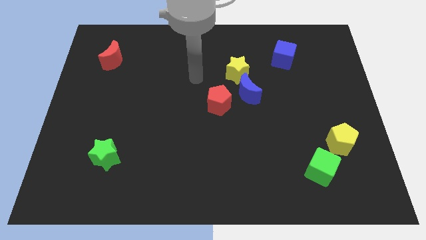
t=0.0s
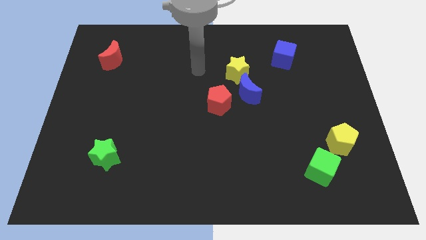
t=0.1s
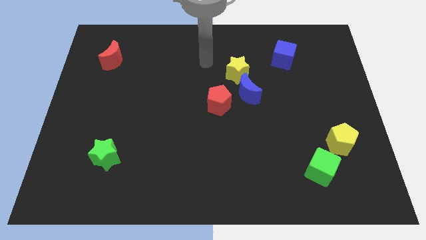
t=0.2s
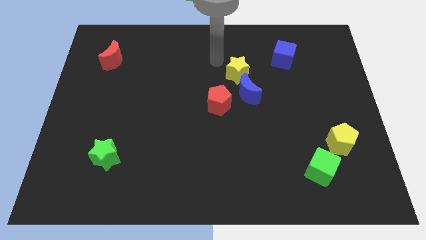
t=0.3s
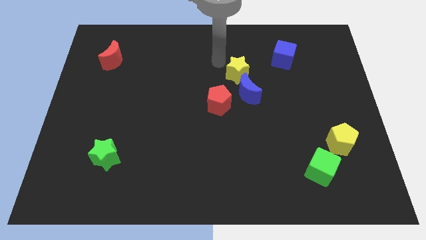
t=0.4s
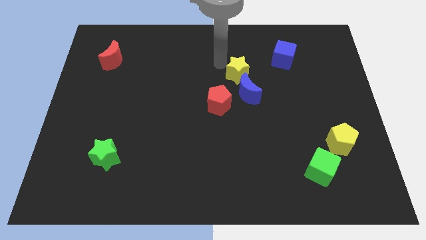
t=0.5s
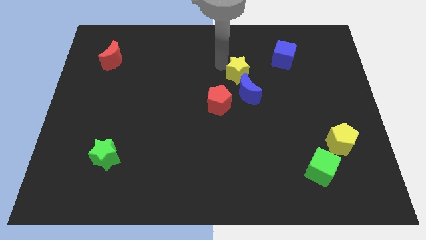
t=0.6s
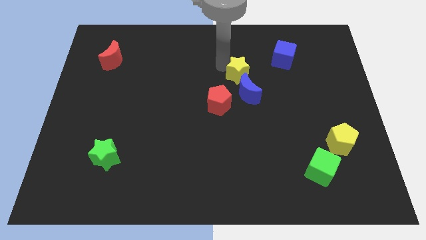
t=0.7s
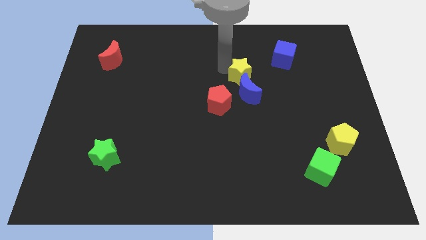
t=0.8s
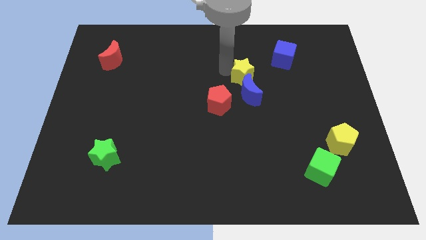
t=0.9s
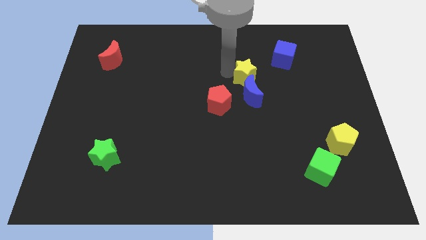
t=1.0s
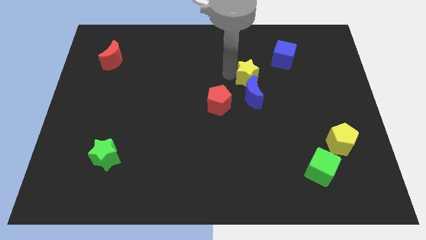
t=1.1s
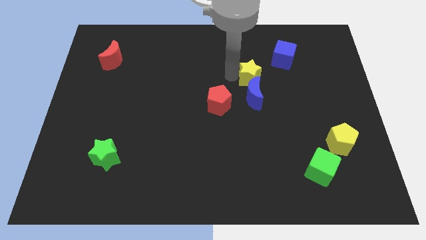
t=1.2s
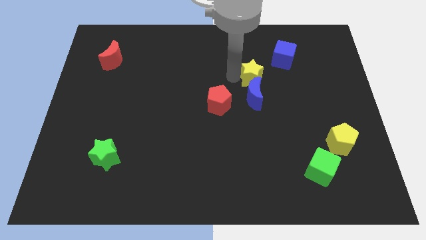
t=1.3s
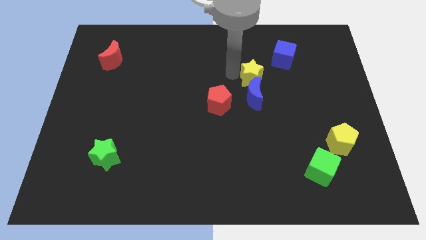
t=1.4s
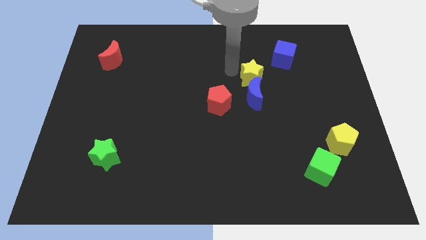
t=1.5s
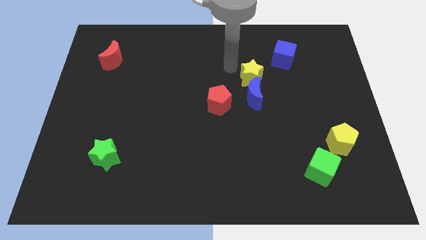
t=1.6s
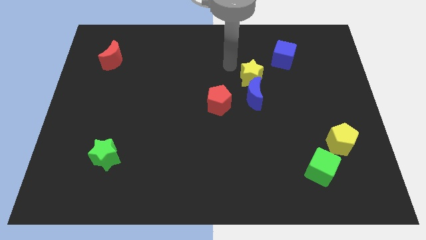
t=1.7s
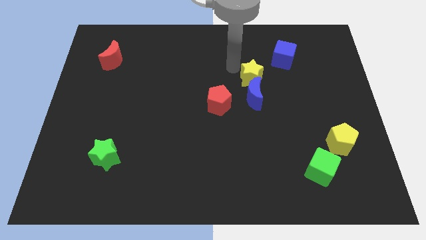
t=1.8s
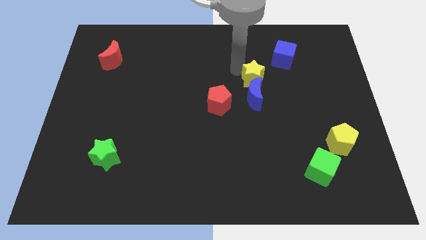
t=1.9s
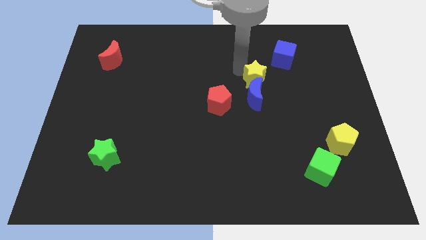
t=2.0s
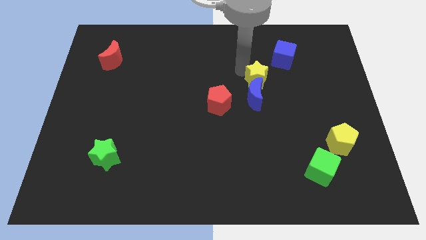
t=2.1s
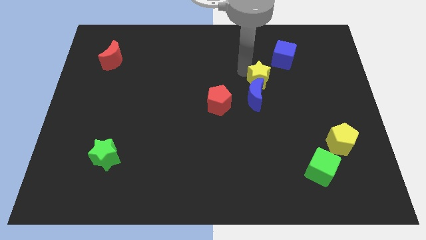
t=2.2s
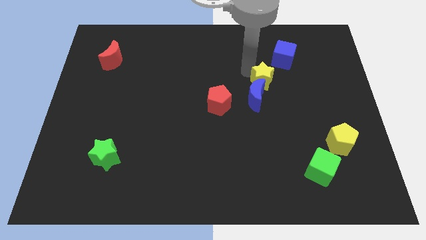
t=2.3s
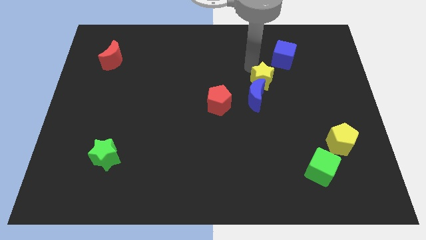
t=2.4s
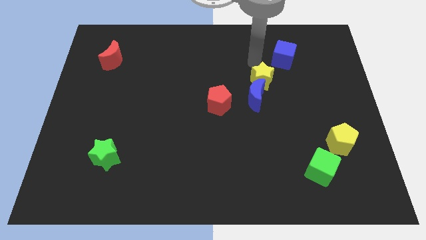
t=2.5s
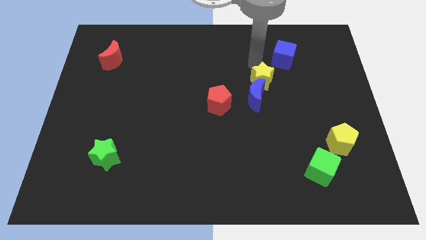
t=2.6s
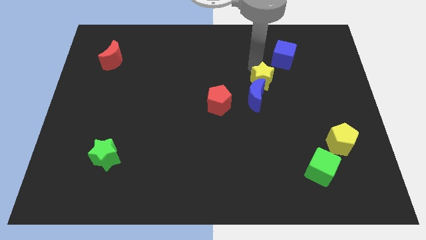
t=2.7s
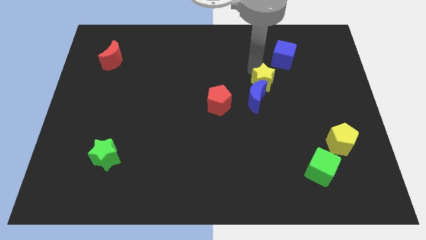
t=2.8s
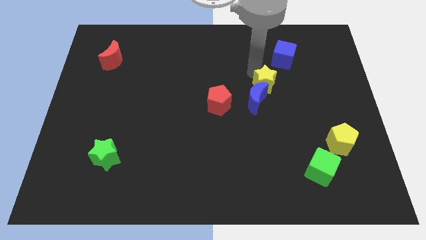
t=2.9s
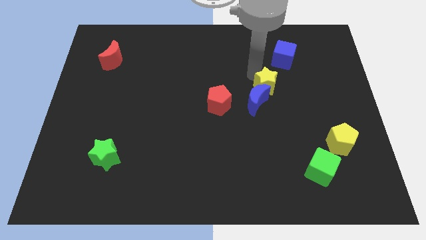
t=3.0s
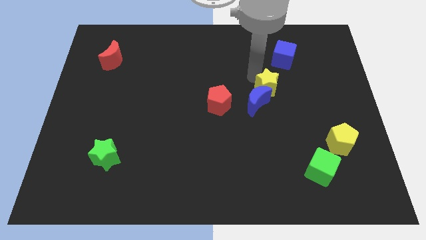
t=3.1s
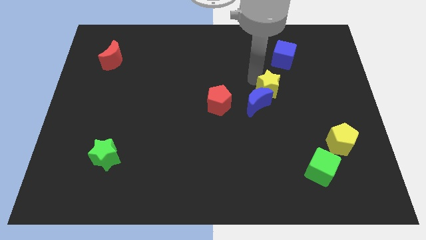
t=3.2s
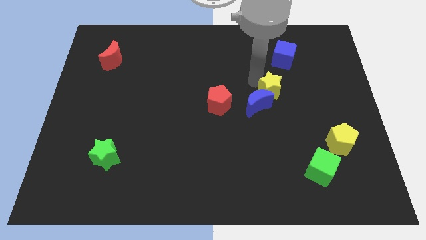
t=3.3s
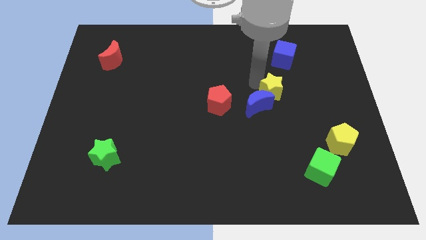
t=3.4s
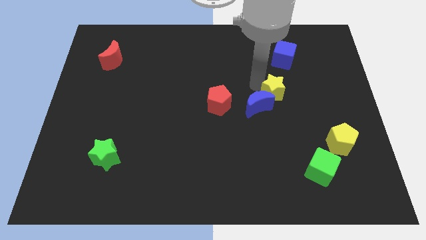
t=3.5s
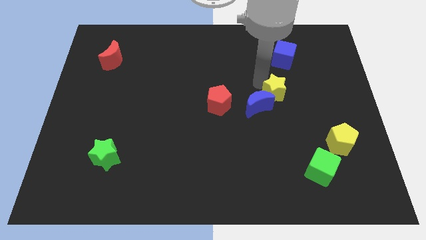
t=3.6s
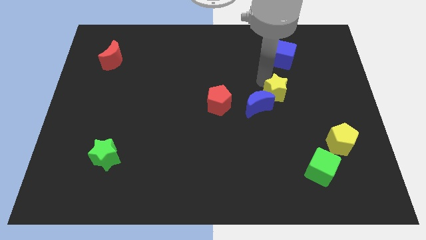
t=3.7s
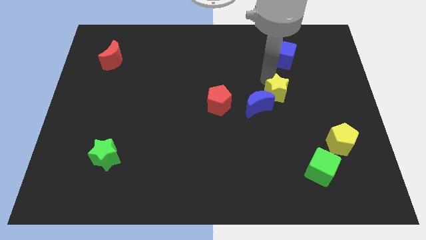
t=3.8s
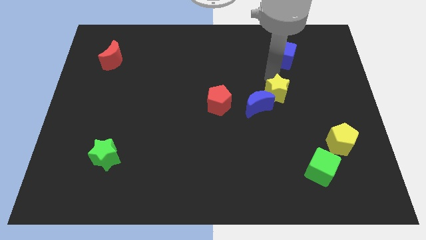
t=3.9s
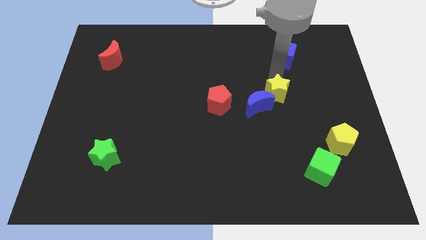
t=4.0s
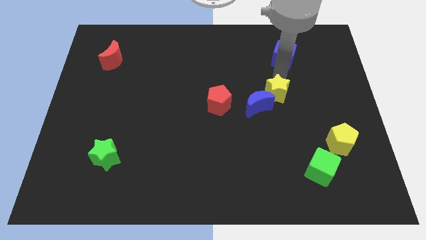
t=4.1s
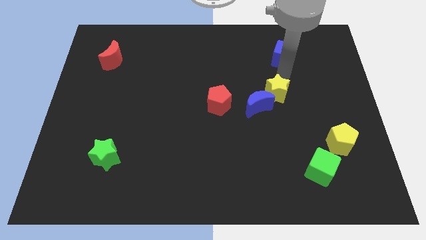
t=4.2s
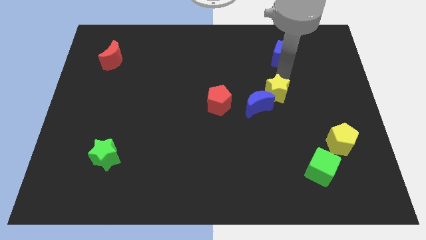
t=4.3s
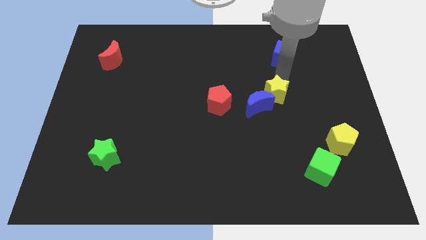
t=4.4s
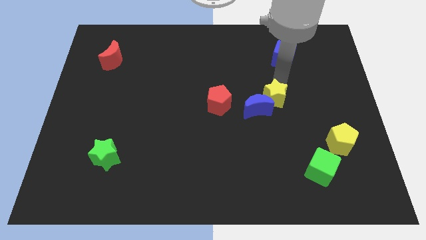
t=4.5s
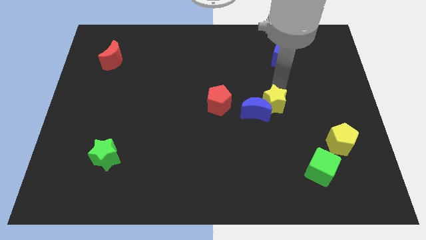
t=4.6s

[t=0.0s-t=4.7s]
slide the yellow star somewhat down

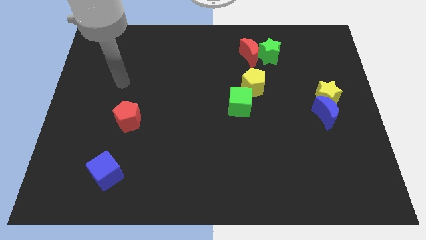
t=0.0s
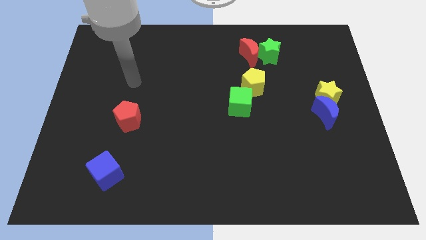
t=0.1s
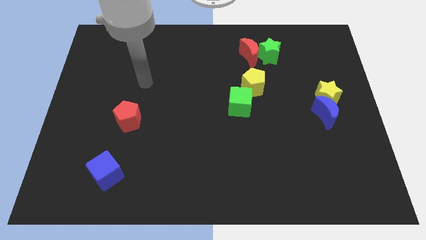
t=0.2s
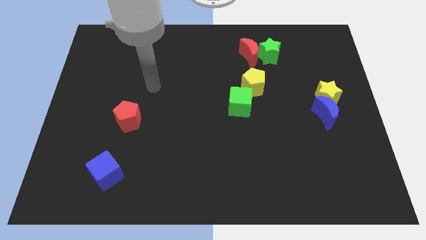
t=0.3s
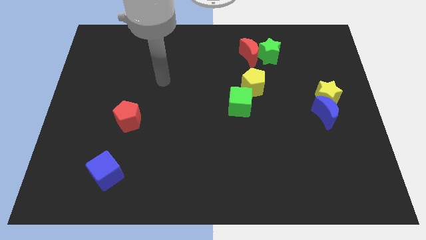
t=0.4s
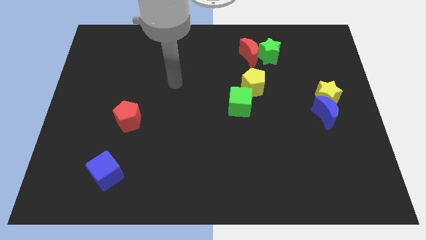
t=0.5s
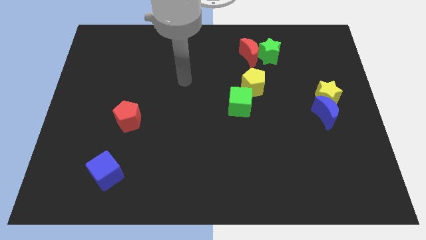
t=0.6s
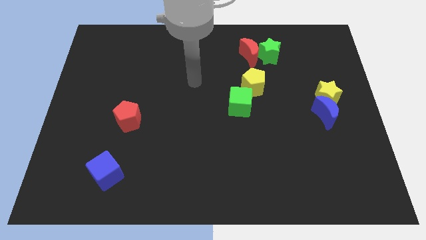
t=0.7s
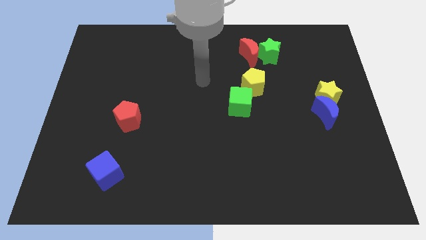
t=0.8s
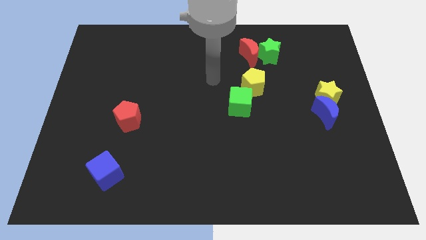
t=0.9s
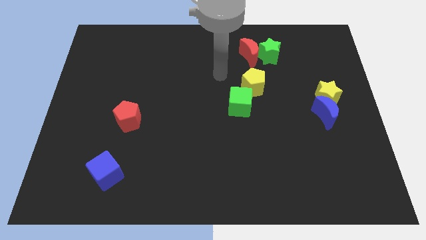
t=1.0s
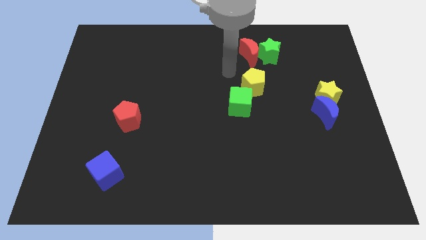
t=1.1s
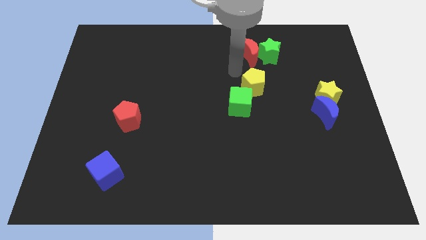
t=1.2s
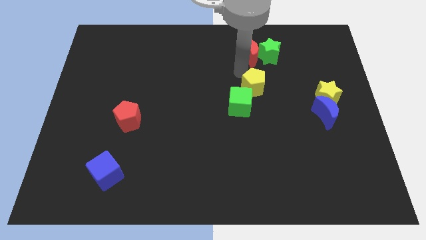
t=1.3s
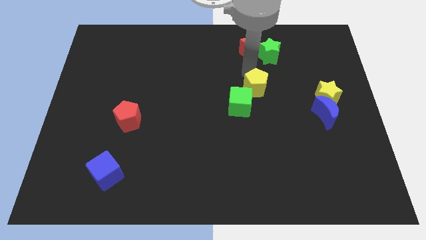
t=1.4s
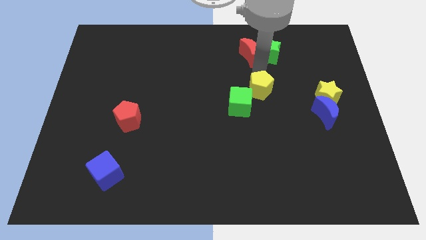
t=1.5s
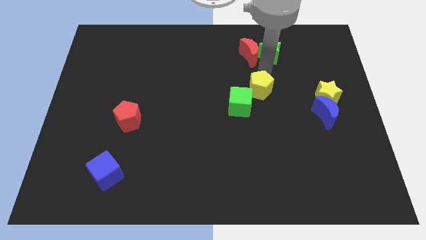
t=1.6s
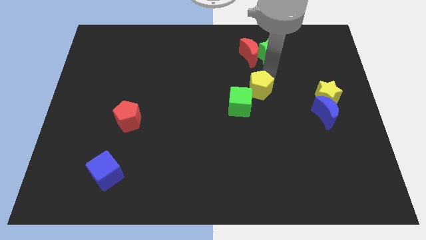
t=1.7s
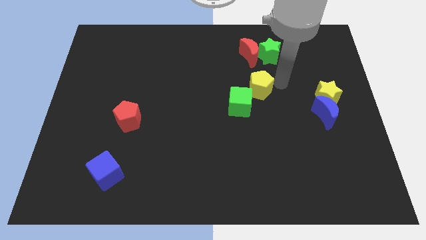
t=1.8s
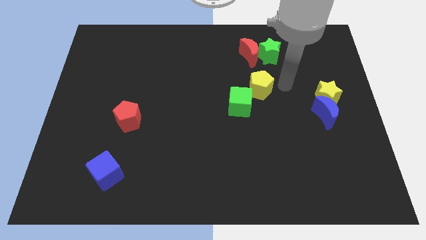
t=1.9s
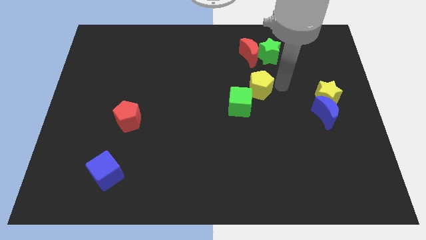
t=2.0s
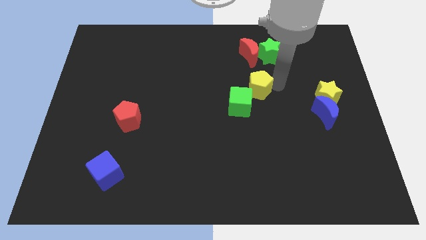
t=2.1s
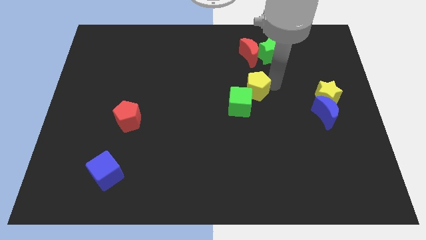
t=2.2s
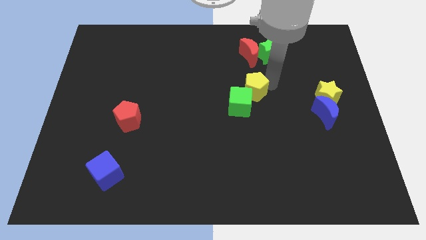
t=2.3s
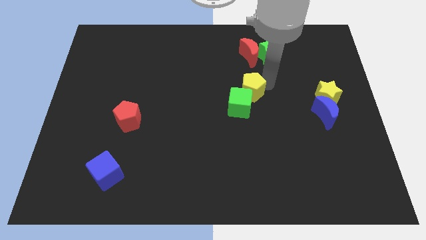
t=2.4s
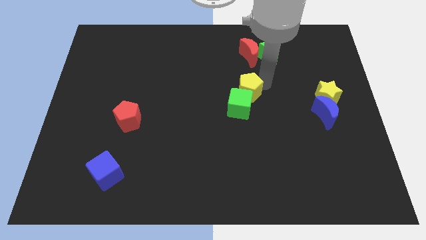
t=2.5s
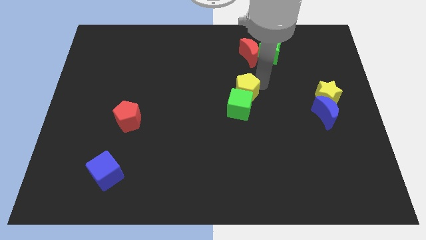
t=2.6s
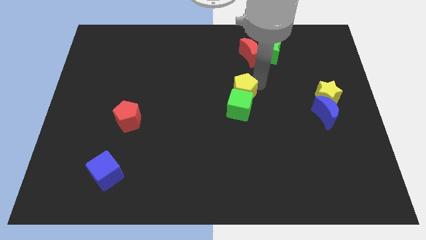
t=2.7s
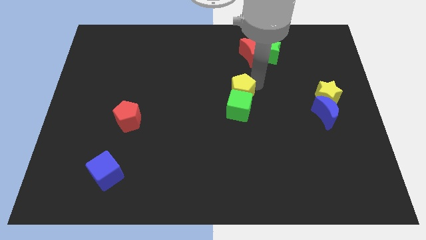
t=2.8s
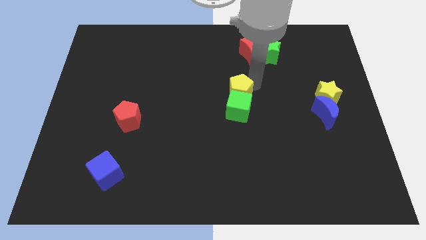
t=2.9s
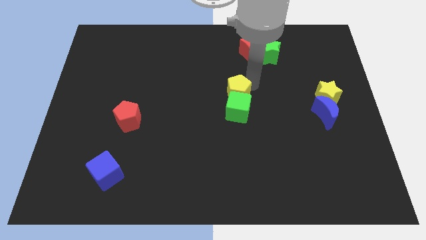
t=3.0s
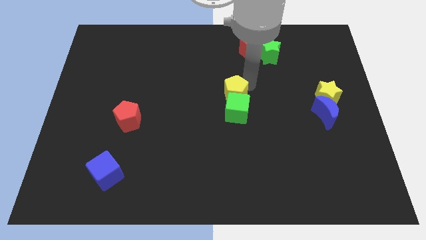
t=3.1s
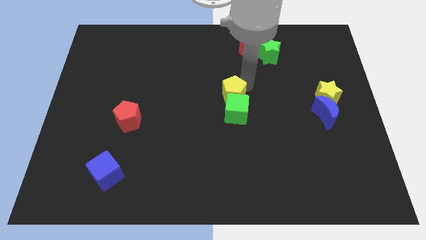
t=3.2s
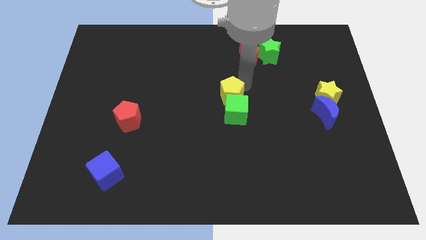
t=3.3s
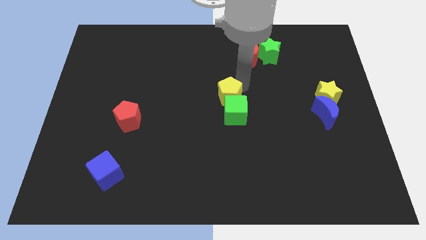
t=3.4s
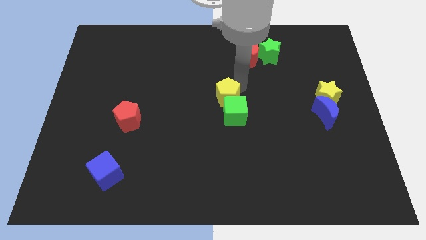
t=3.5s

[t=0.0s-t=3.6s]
slightly move the yellow pentagon down and then left

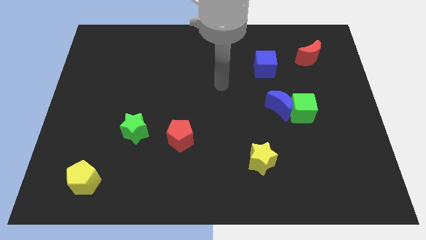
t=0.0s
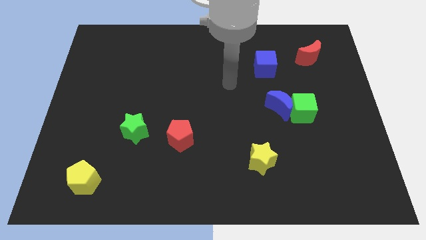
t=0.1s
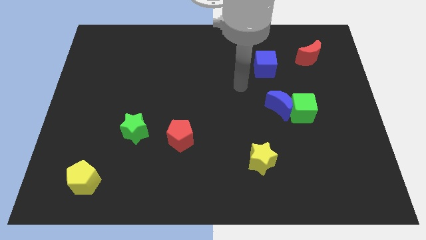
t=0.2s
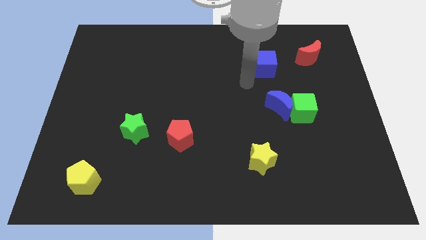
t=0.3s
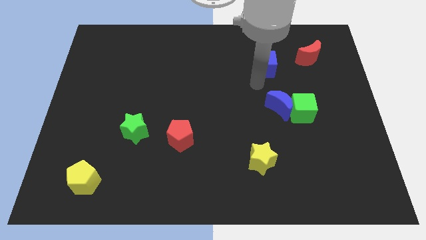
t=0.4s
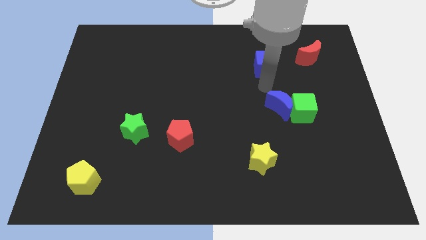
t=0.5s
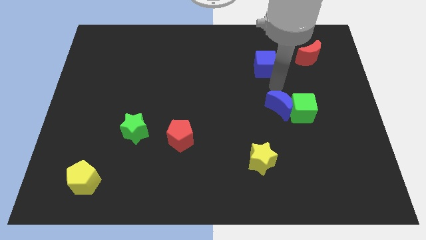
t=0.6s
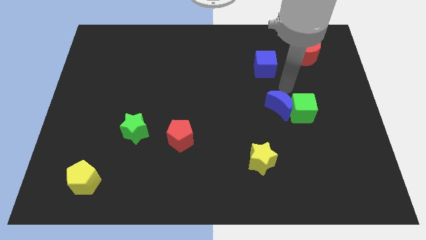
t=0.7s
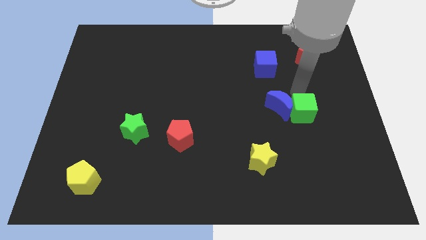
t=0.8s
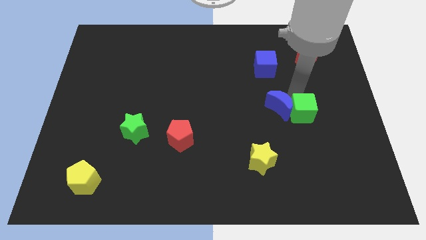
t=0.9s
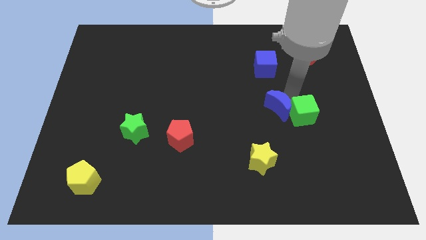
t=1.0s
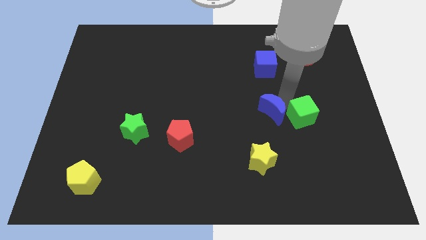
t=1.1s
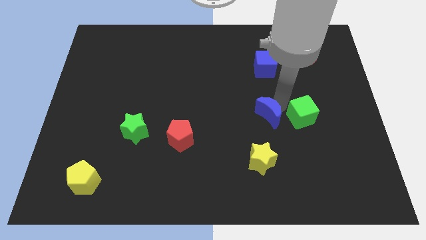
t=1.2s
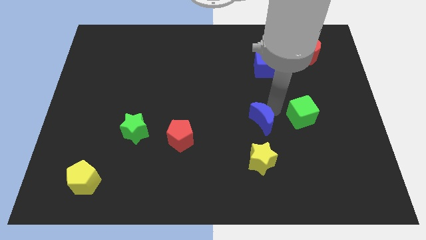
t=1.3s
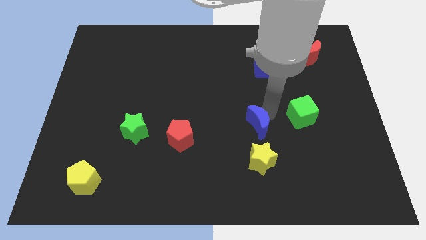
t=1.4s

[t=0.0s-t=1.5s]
slightly move the blue moon down and then to the left
